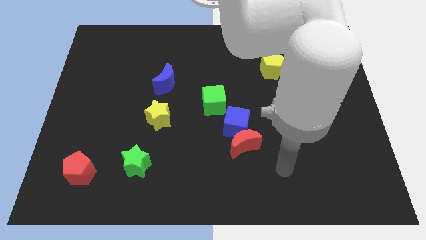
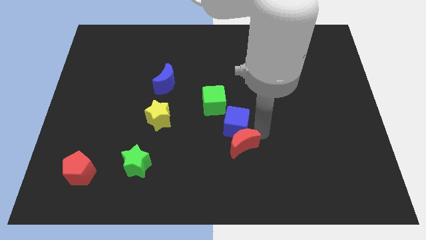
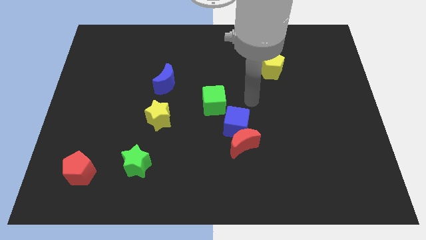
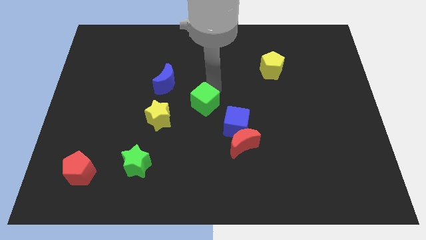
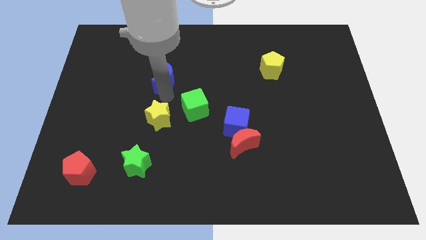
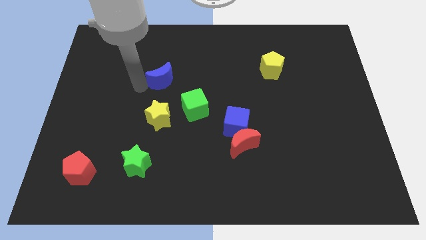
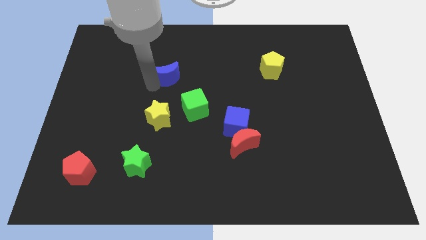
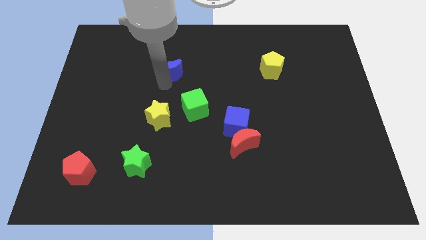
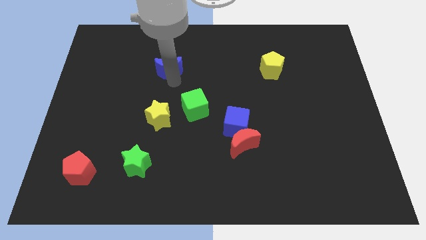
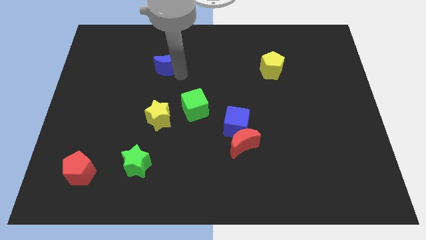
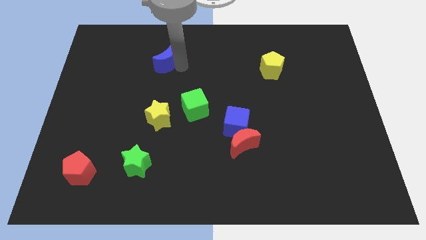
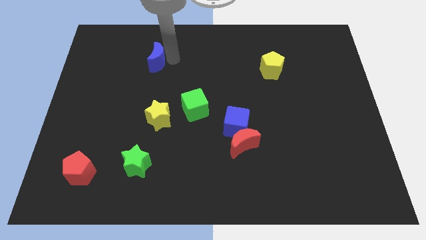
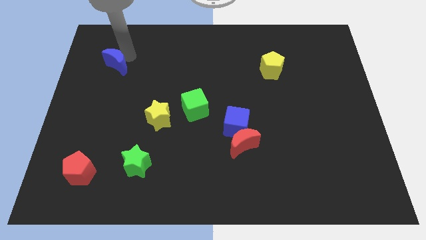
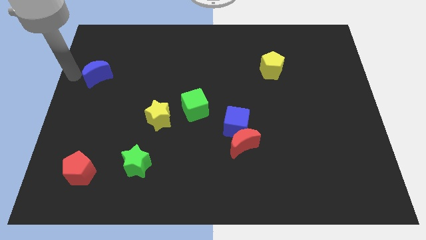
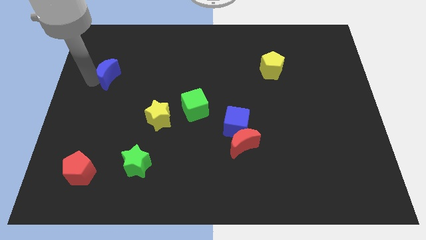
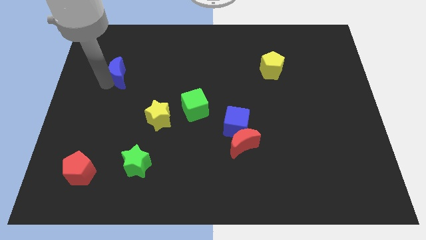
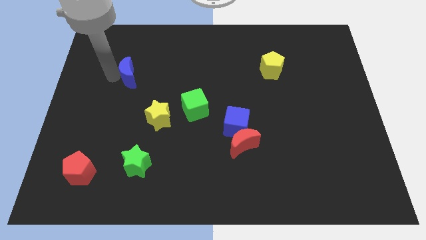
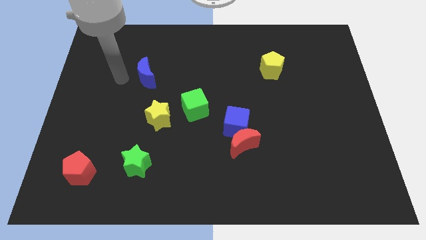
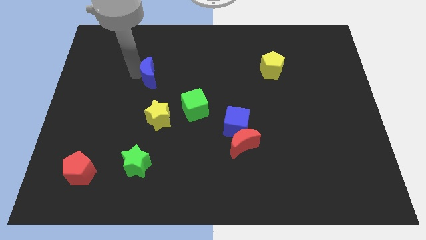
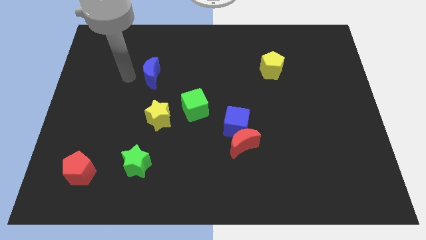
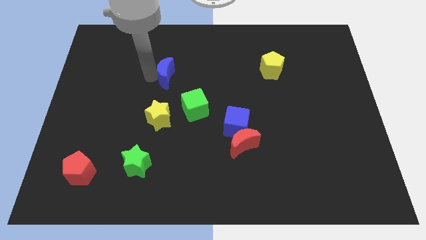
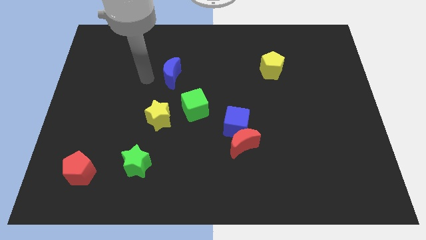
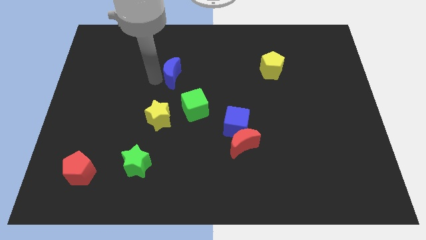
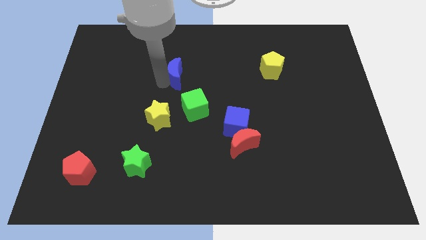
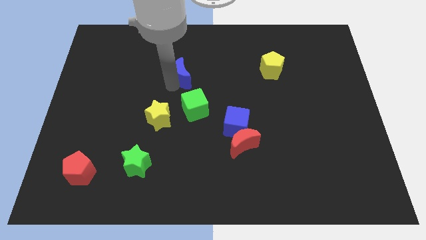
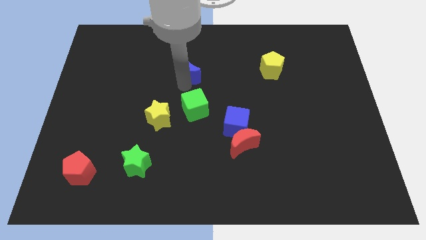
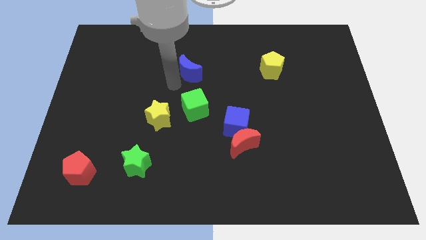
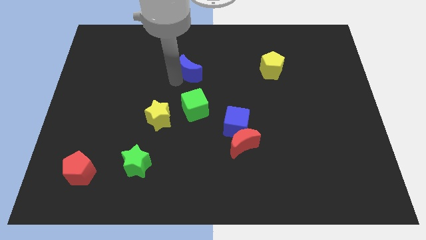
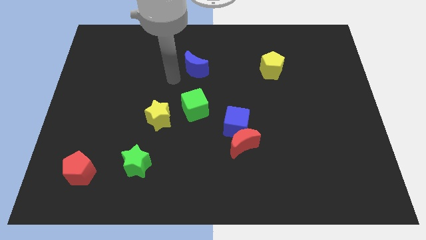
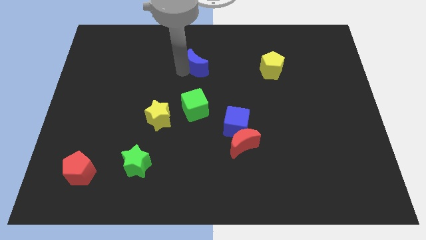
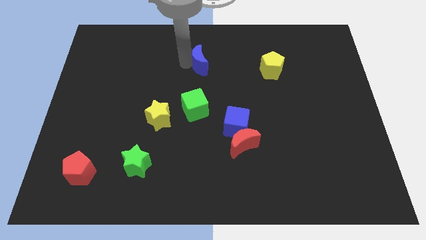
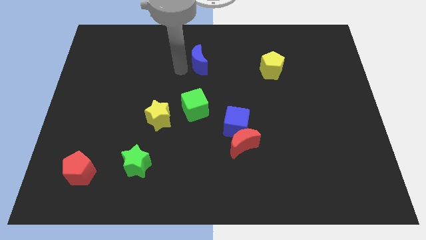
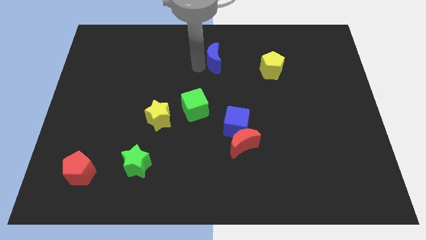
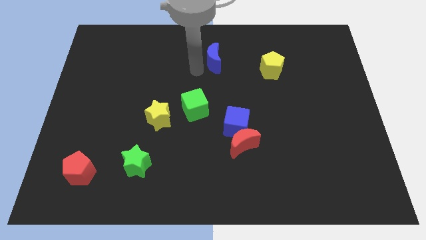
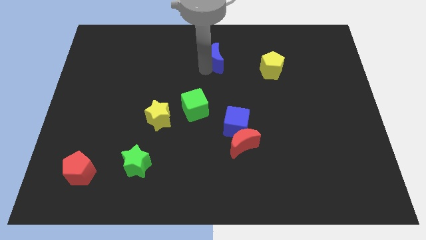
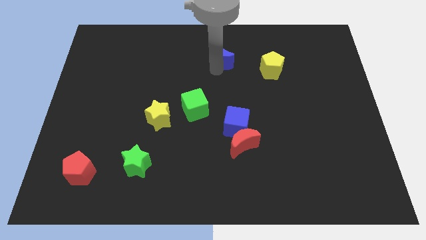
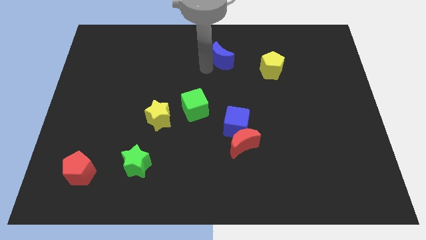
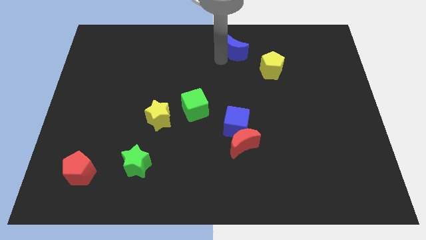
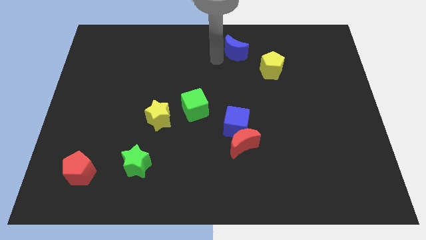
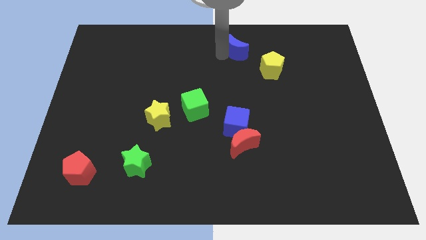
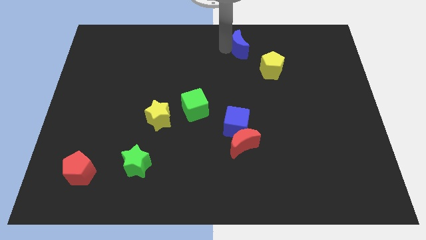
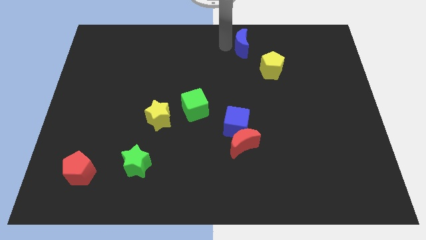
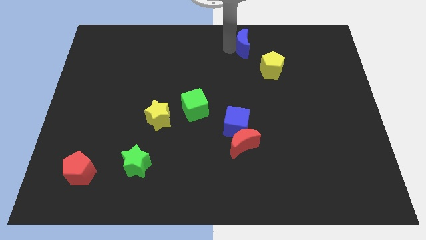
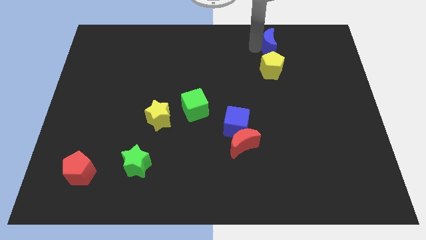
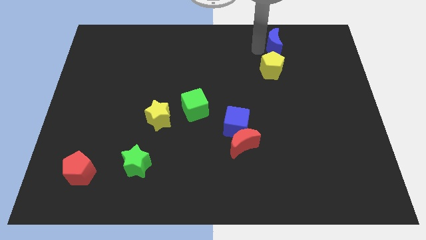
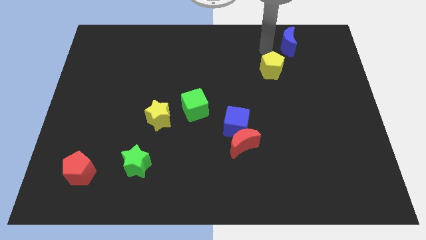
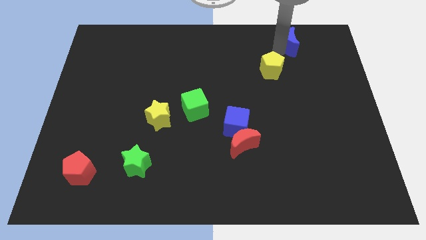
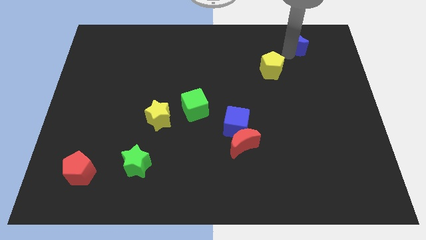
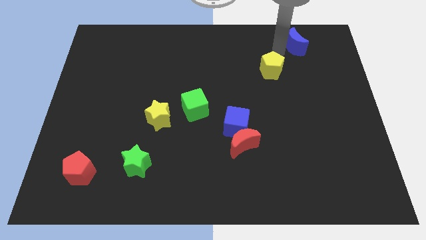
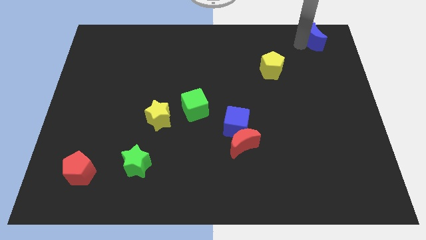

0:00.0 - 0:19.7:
slide the blue moon to the upper right corner

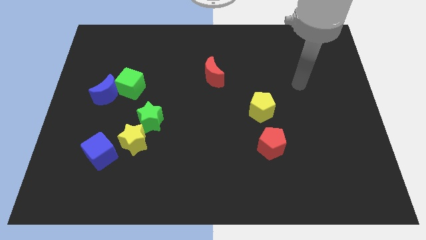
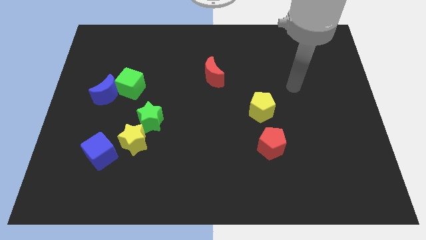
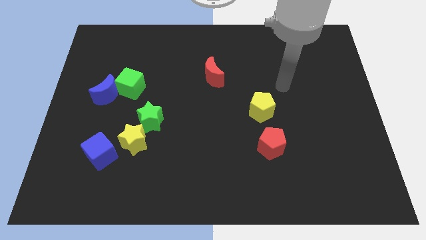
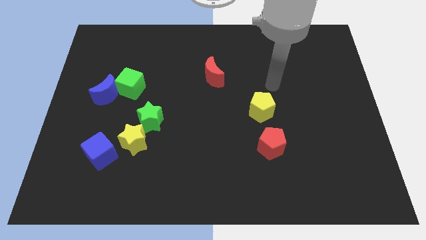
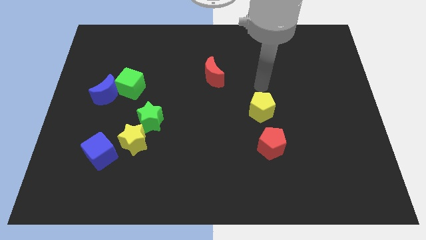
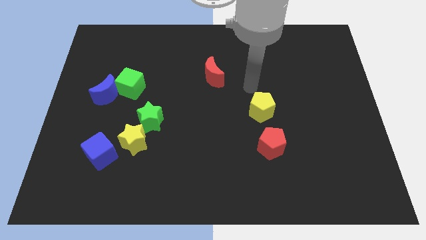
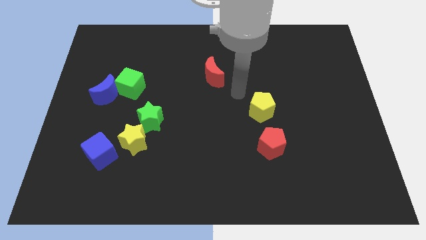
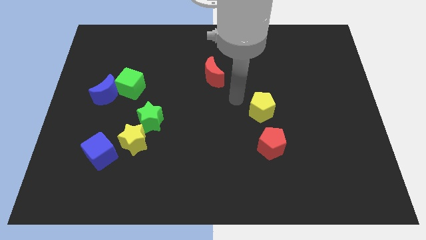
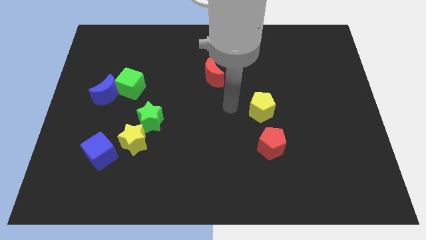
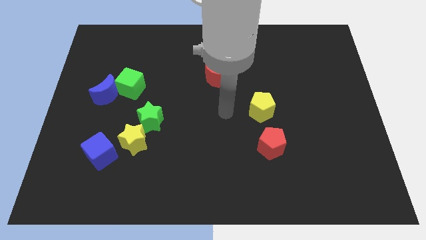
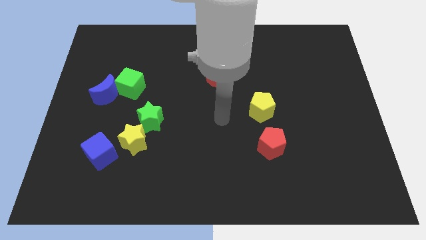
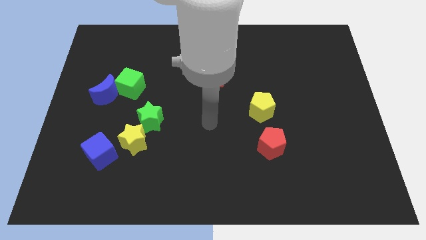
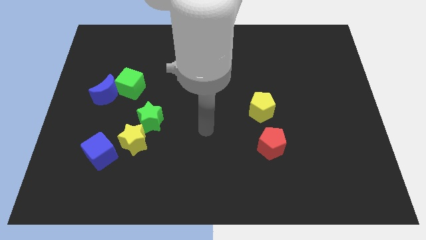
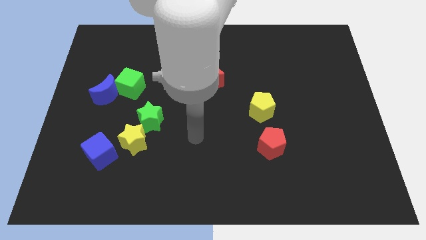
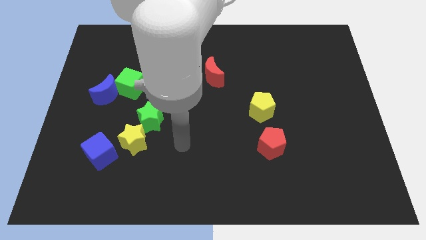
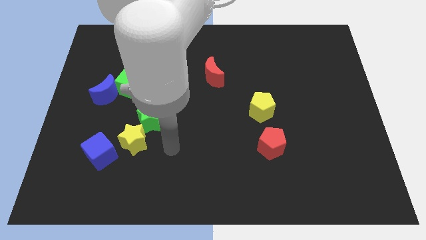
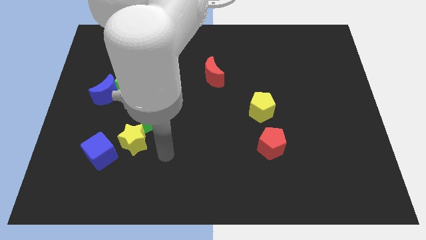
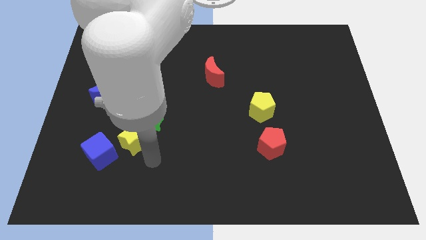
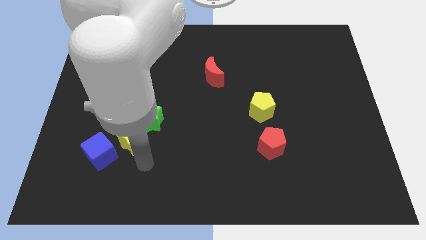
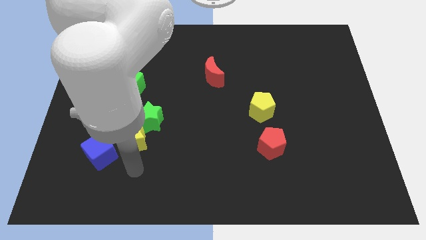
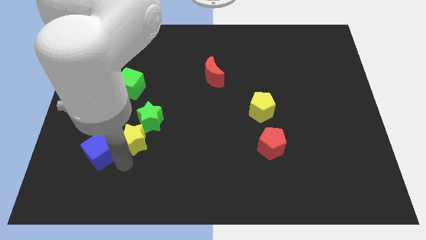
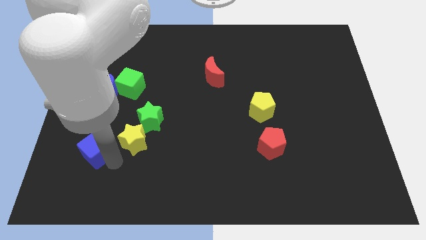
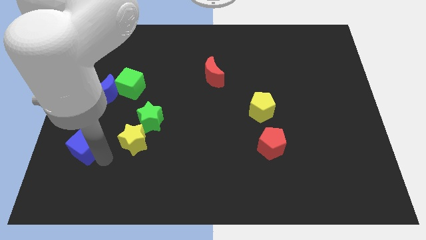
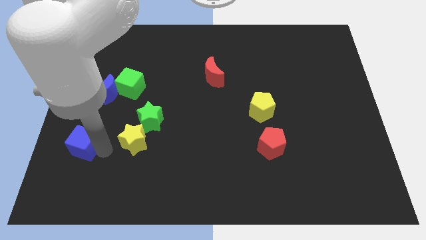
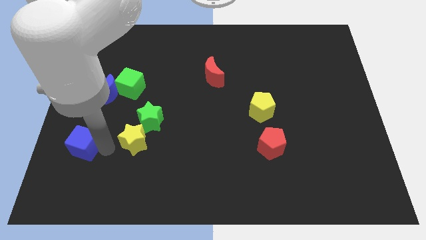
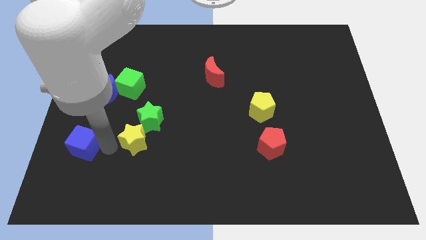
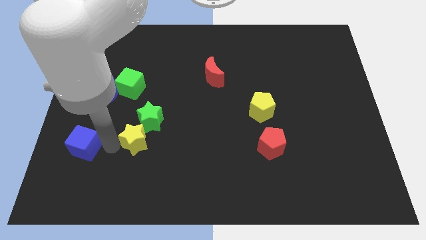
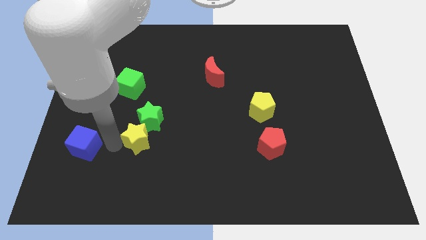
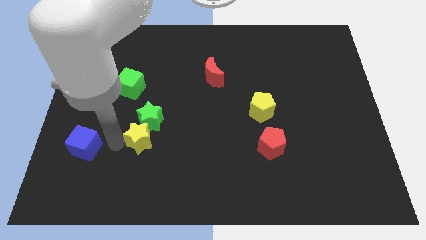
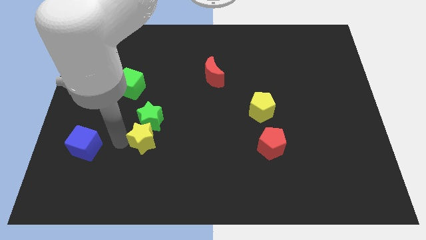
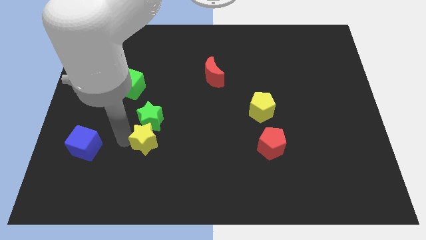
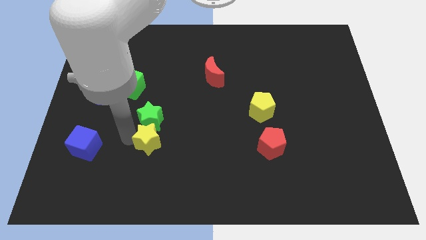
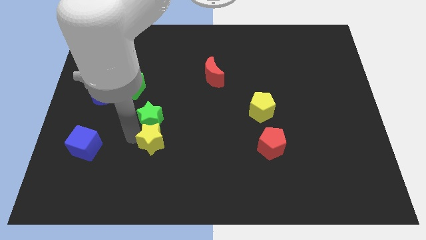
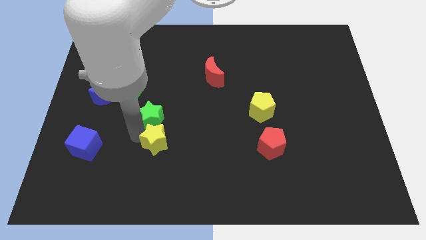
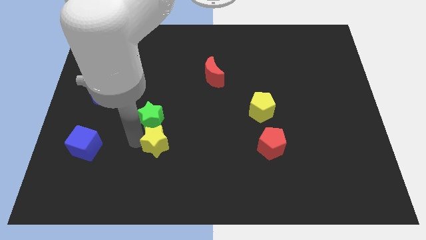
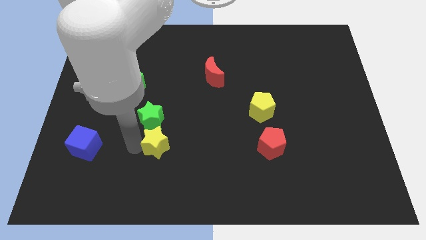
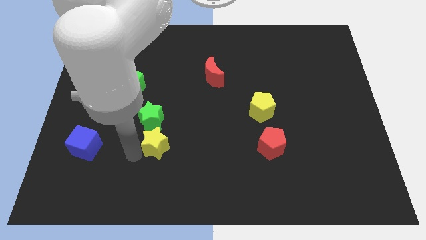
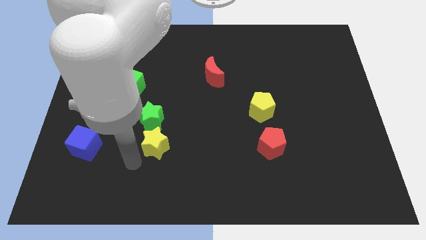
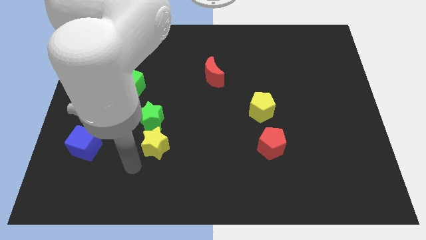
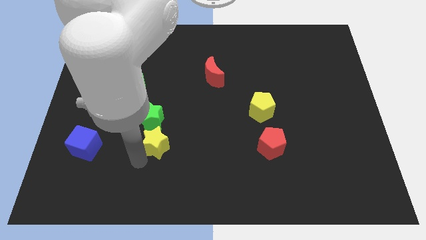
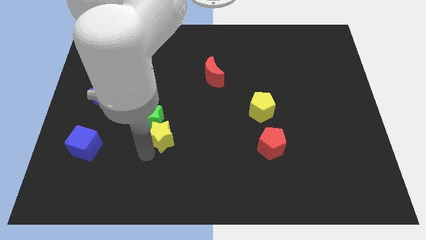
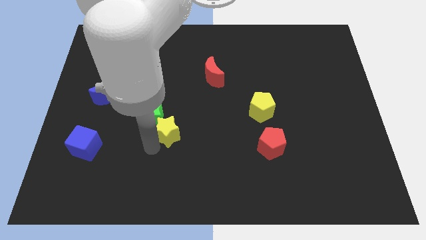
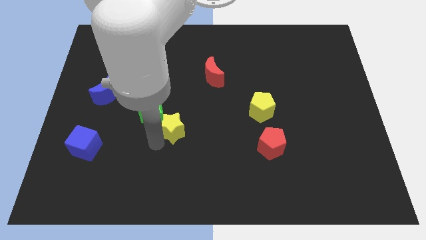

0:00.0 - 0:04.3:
move the yellow star to the middle
